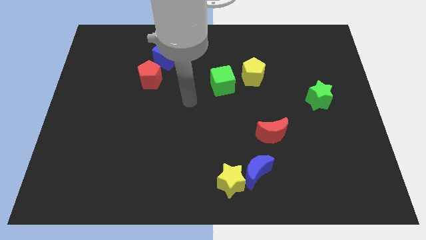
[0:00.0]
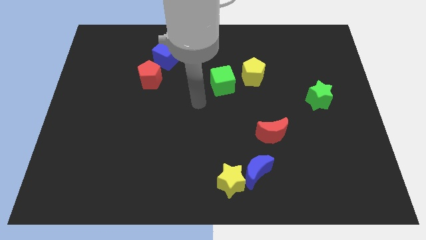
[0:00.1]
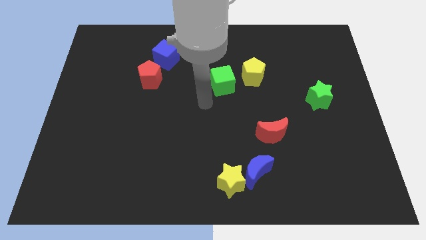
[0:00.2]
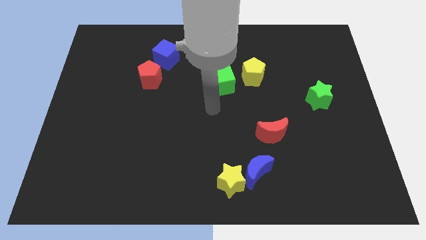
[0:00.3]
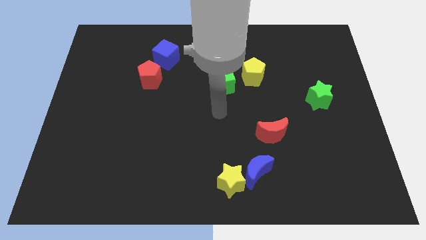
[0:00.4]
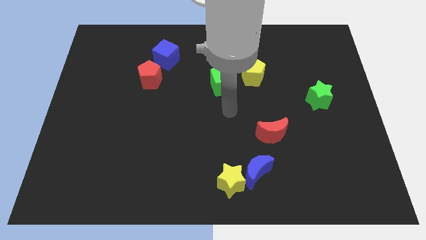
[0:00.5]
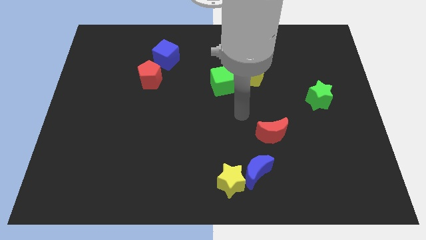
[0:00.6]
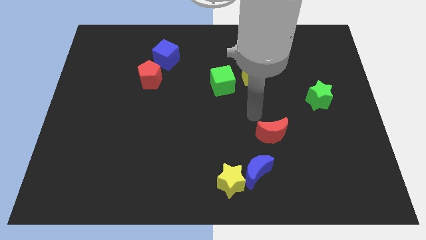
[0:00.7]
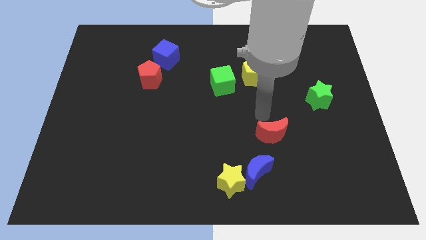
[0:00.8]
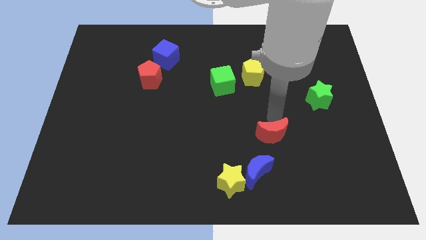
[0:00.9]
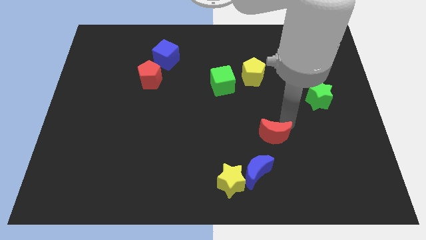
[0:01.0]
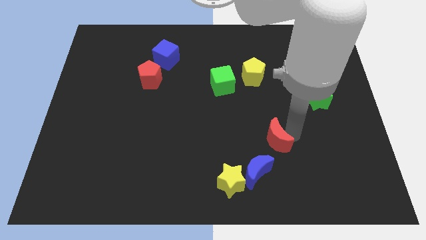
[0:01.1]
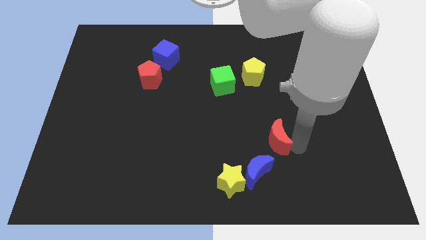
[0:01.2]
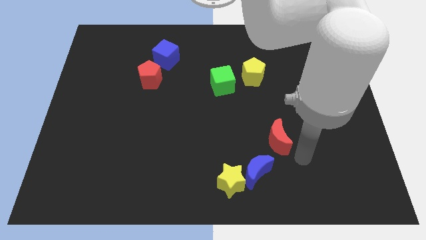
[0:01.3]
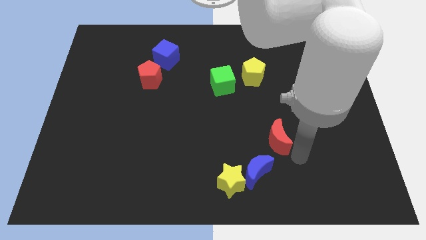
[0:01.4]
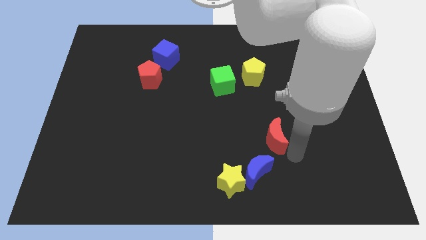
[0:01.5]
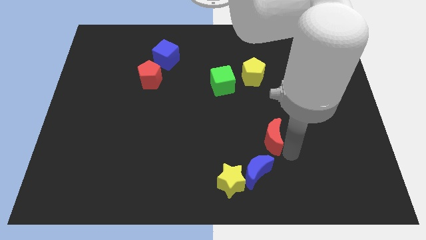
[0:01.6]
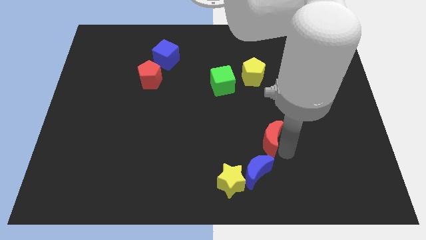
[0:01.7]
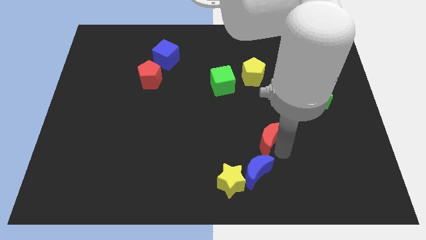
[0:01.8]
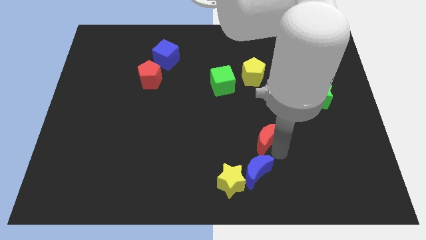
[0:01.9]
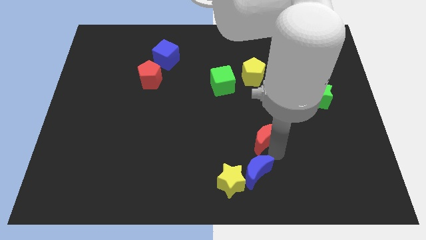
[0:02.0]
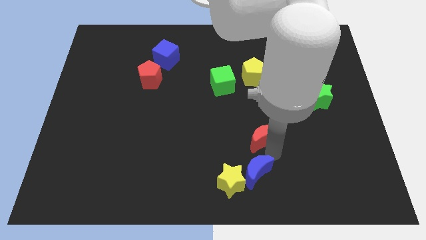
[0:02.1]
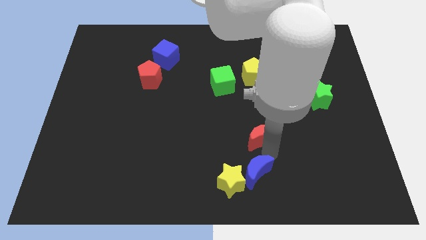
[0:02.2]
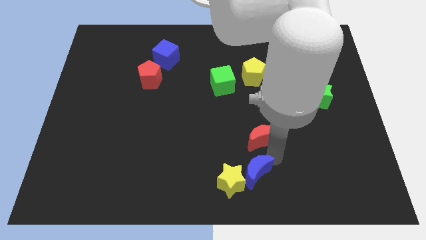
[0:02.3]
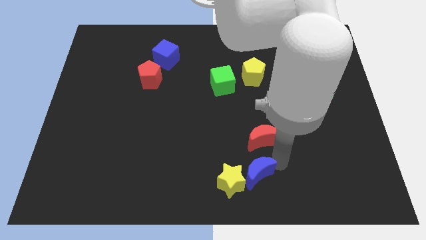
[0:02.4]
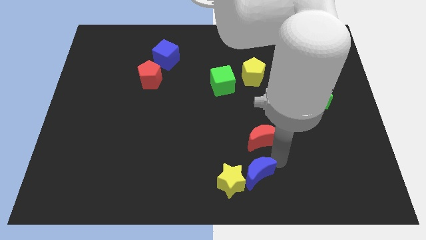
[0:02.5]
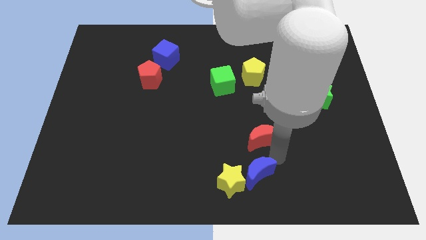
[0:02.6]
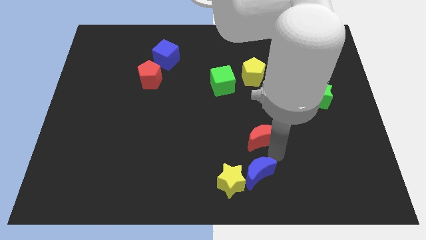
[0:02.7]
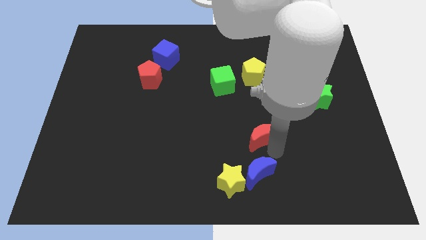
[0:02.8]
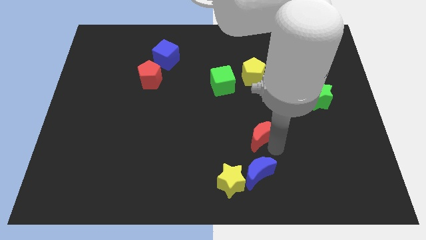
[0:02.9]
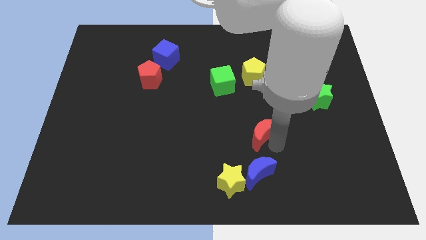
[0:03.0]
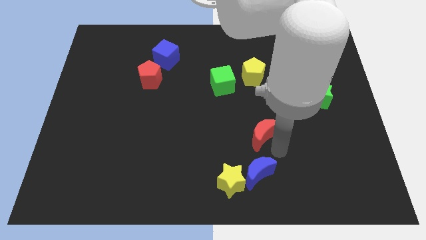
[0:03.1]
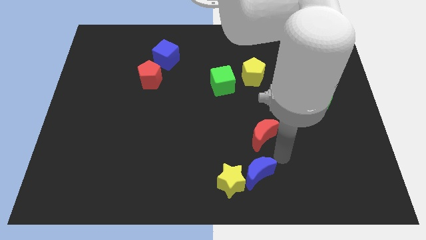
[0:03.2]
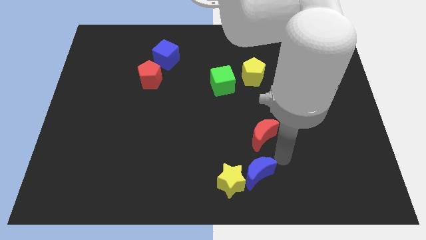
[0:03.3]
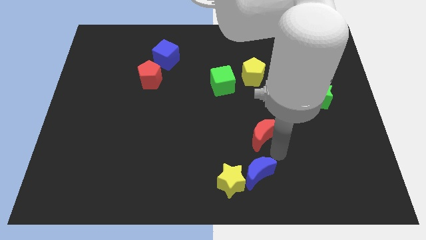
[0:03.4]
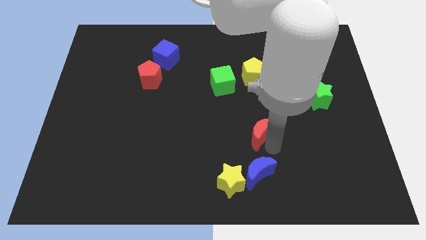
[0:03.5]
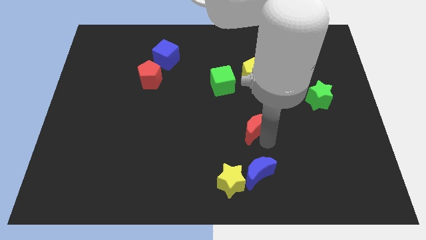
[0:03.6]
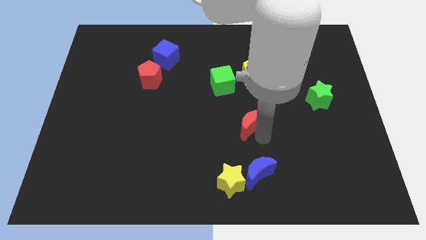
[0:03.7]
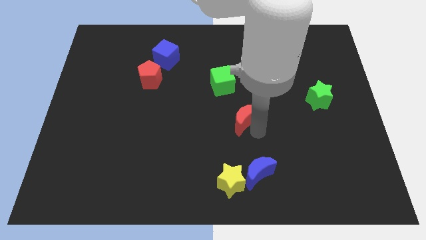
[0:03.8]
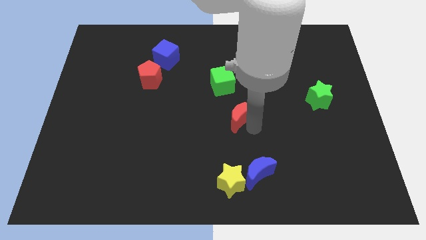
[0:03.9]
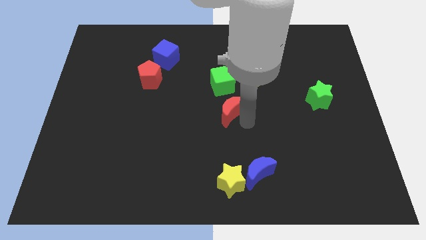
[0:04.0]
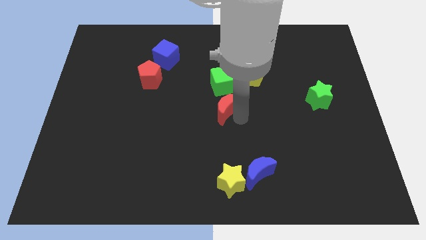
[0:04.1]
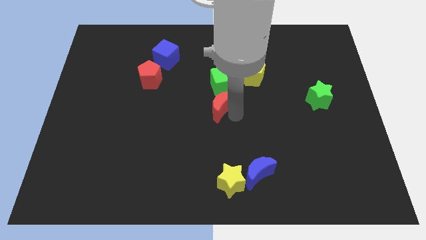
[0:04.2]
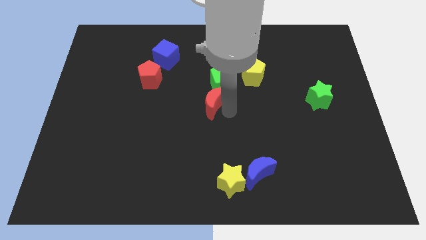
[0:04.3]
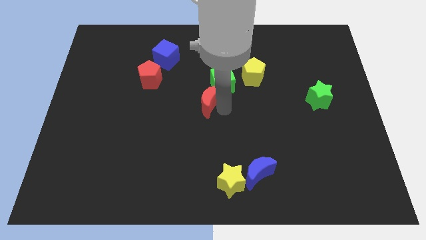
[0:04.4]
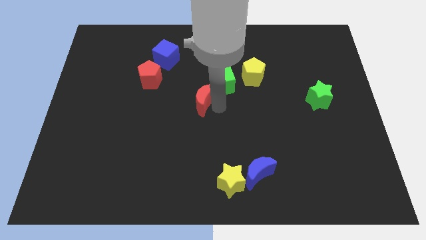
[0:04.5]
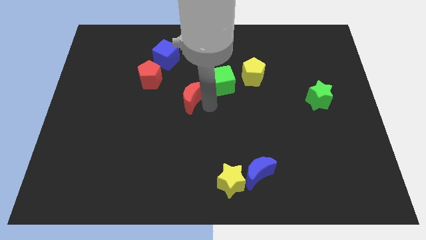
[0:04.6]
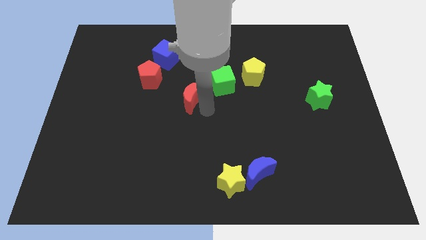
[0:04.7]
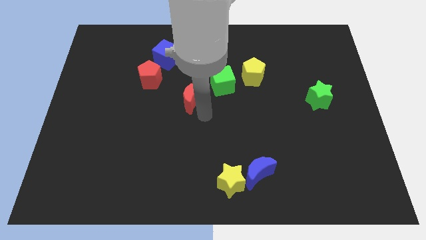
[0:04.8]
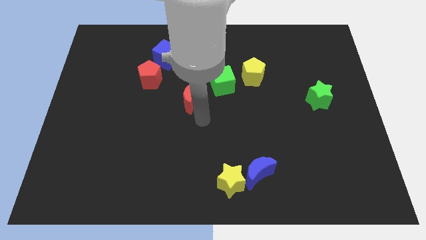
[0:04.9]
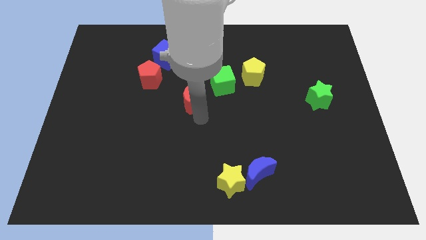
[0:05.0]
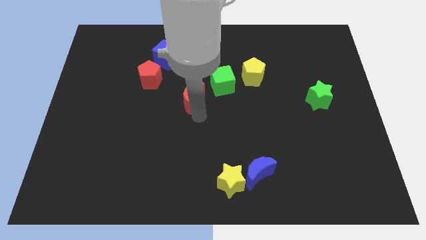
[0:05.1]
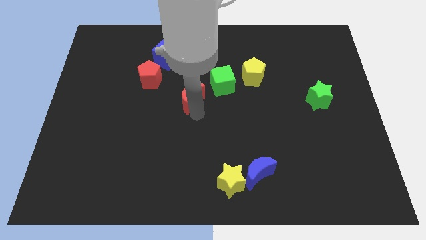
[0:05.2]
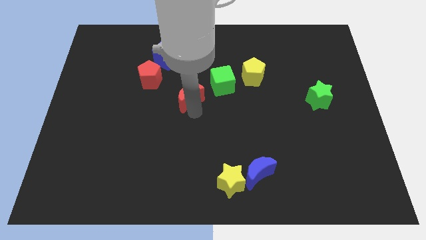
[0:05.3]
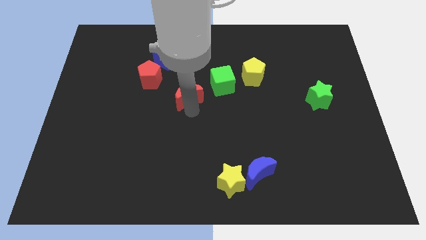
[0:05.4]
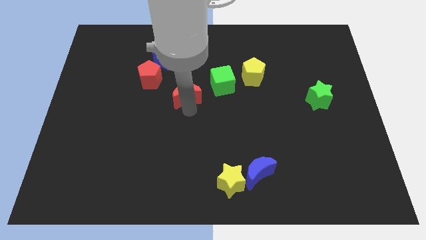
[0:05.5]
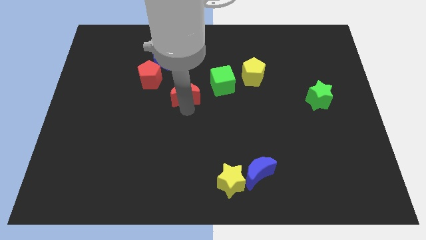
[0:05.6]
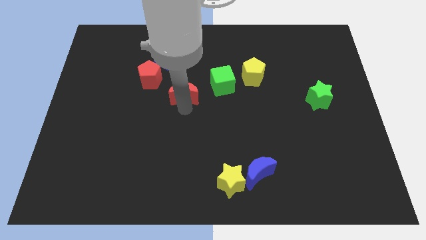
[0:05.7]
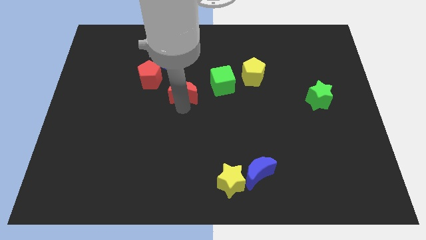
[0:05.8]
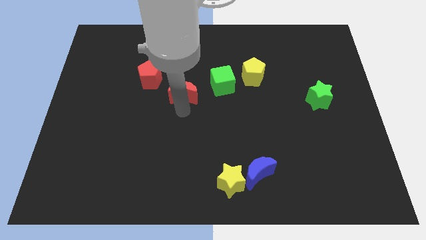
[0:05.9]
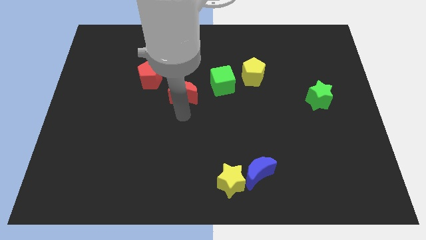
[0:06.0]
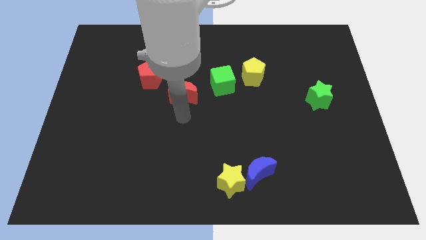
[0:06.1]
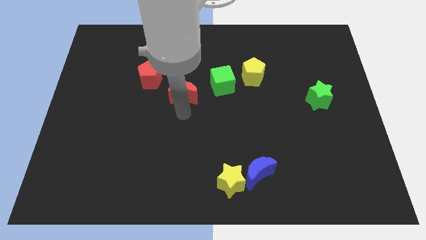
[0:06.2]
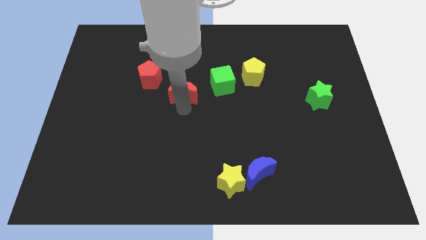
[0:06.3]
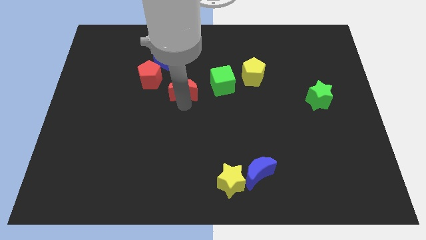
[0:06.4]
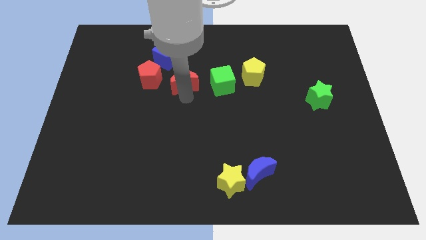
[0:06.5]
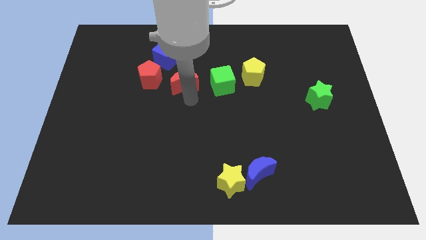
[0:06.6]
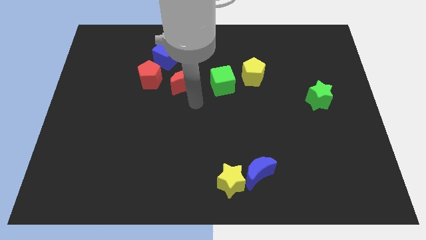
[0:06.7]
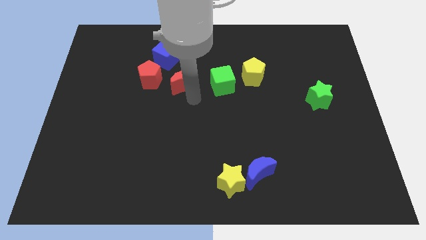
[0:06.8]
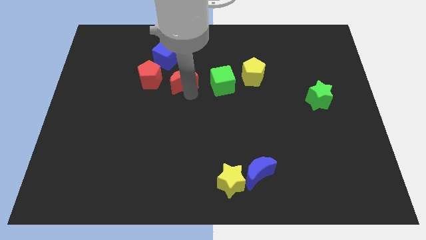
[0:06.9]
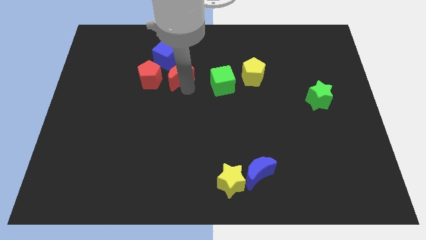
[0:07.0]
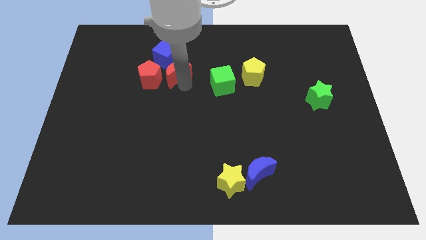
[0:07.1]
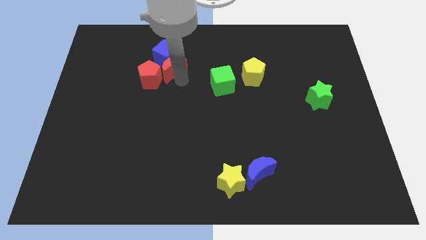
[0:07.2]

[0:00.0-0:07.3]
move the red moon close to the blue cube
